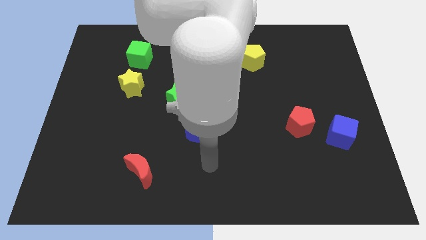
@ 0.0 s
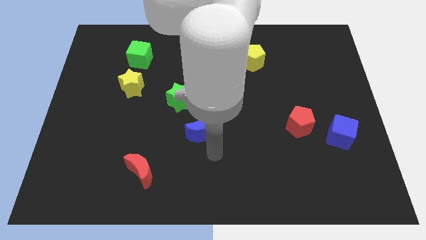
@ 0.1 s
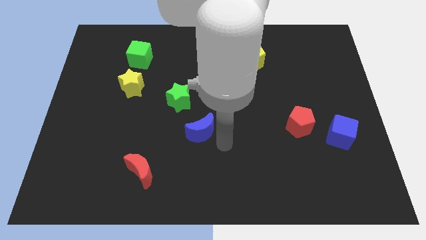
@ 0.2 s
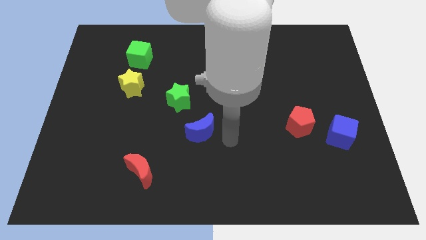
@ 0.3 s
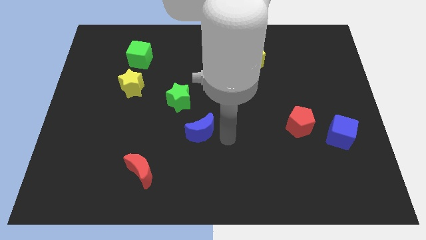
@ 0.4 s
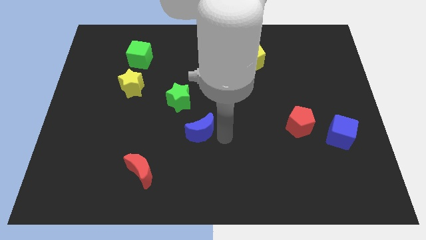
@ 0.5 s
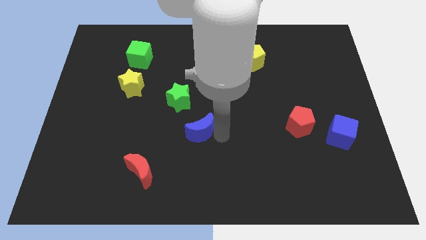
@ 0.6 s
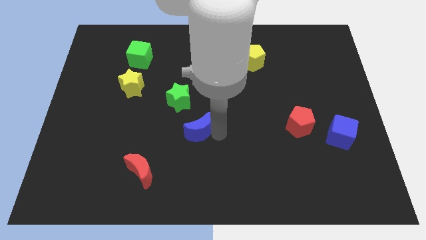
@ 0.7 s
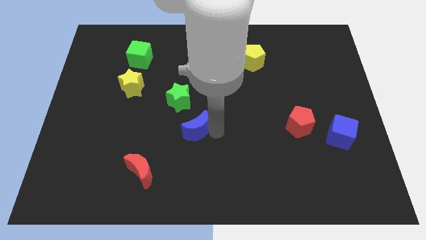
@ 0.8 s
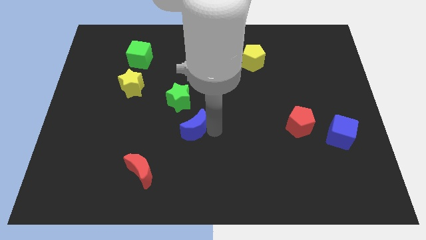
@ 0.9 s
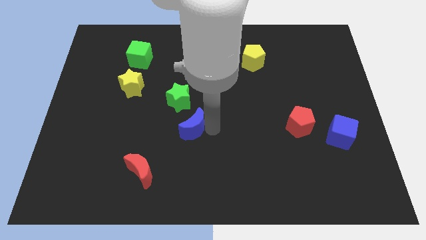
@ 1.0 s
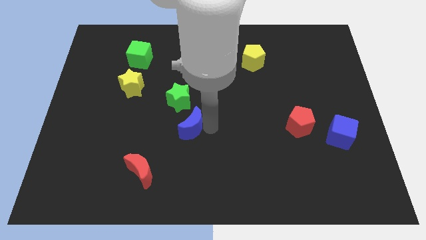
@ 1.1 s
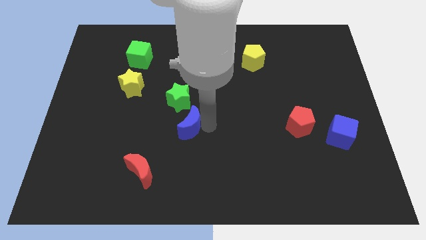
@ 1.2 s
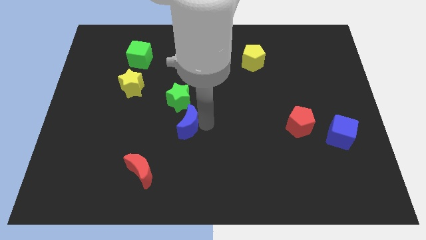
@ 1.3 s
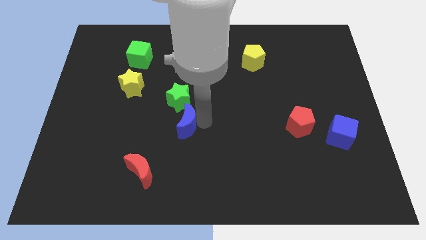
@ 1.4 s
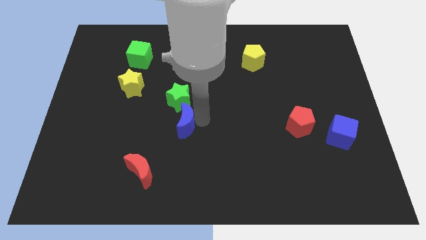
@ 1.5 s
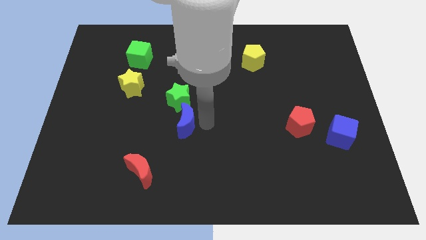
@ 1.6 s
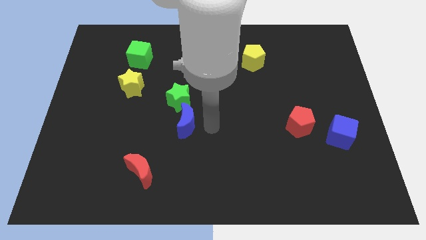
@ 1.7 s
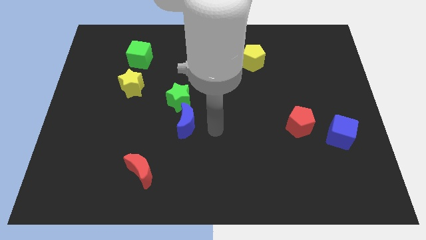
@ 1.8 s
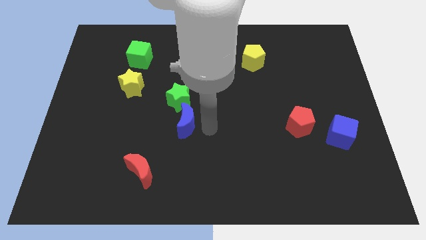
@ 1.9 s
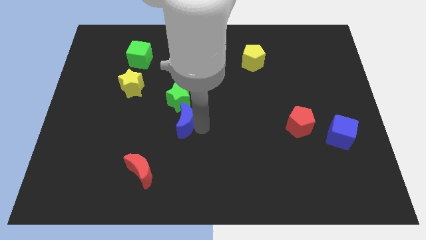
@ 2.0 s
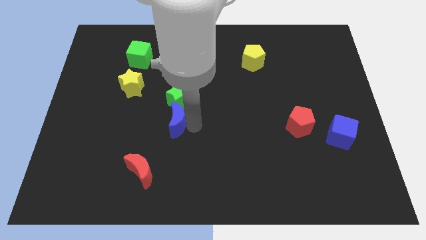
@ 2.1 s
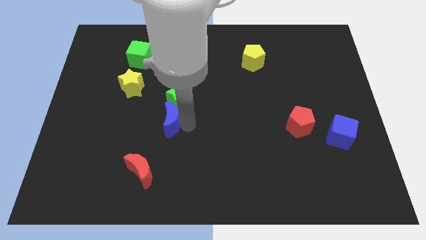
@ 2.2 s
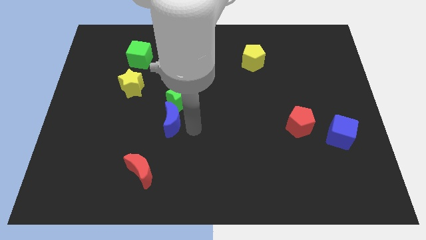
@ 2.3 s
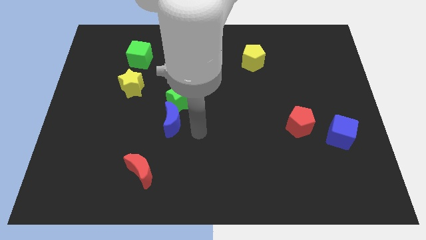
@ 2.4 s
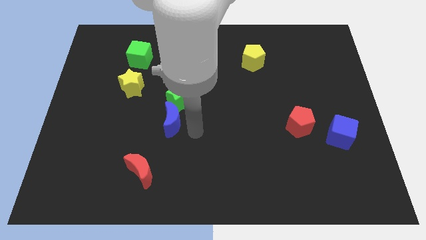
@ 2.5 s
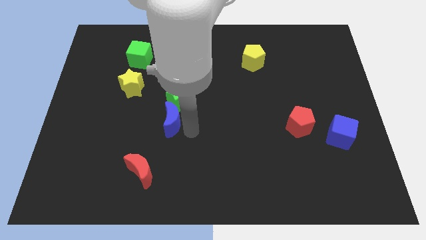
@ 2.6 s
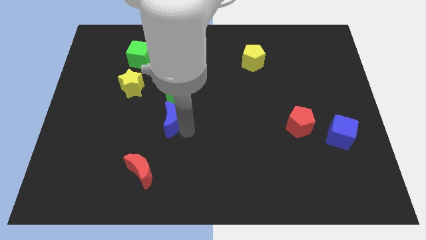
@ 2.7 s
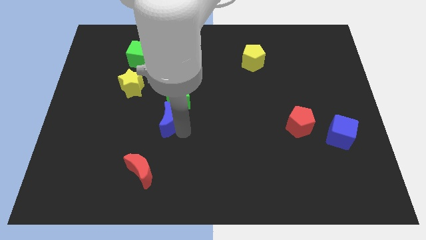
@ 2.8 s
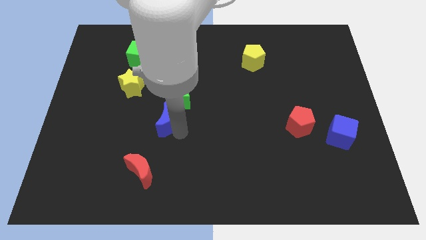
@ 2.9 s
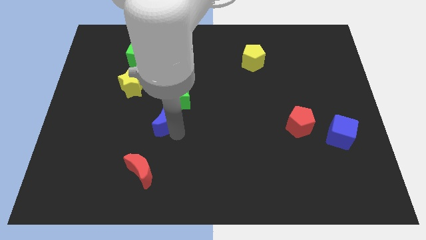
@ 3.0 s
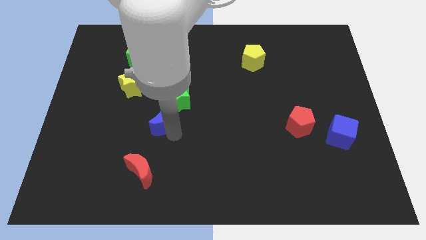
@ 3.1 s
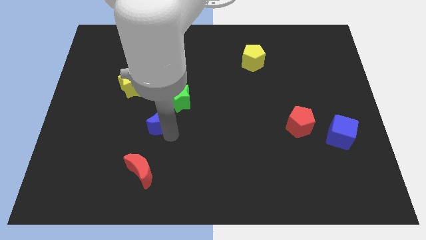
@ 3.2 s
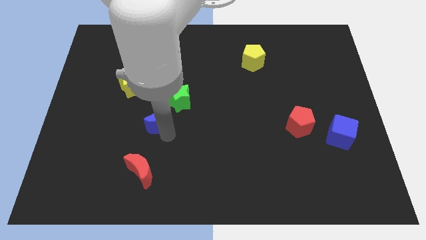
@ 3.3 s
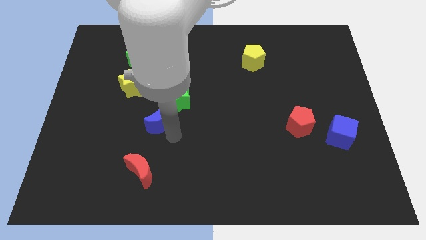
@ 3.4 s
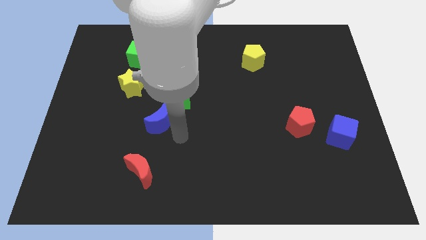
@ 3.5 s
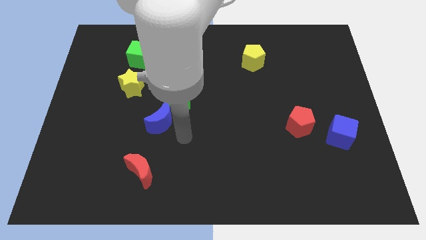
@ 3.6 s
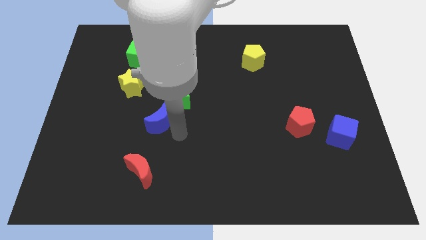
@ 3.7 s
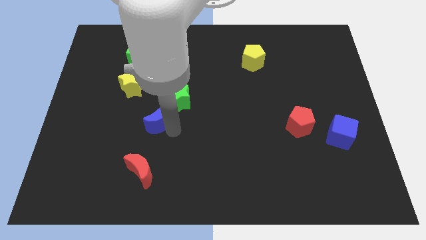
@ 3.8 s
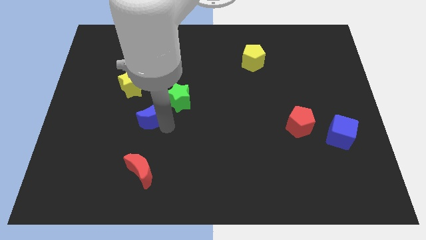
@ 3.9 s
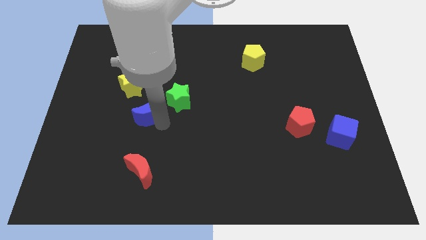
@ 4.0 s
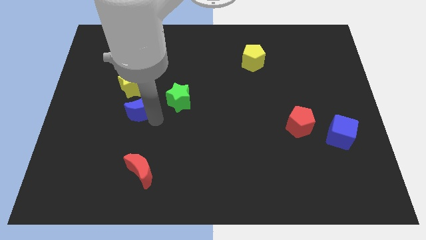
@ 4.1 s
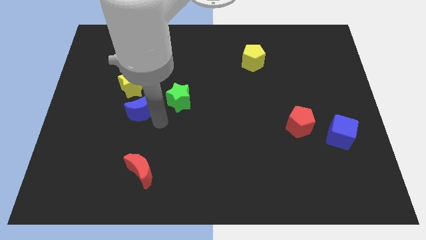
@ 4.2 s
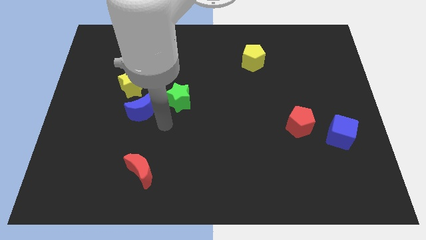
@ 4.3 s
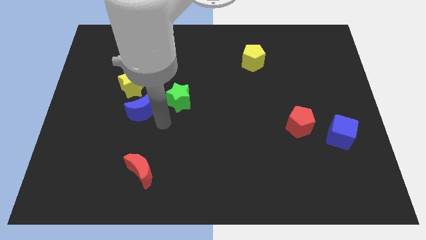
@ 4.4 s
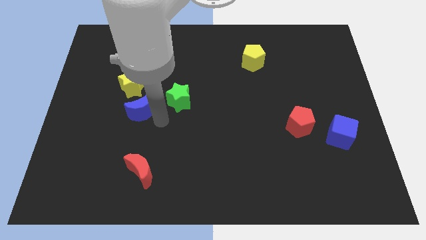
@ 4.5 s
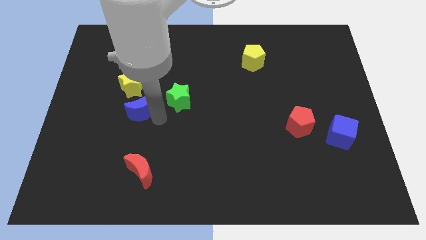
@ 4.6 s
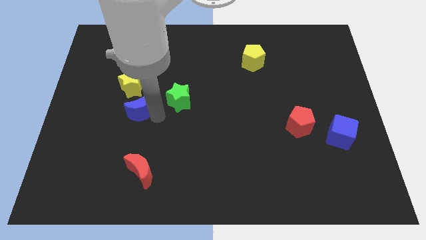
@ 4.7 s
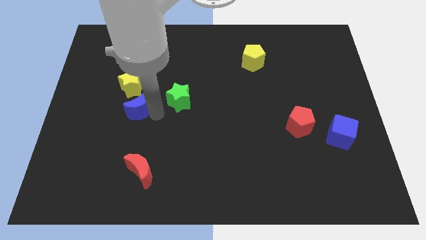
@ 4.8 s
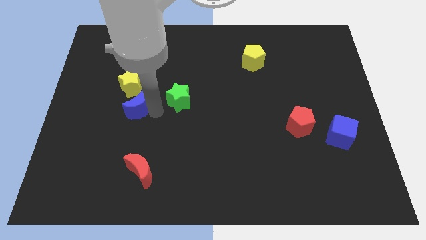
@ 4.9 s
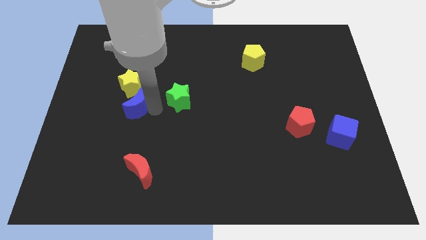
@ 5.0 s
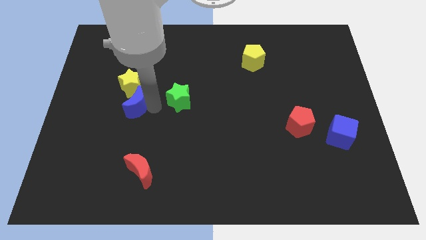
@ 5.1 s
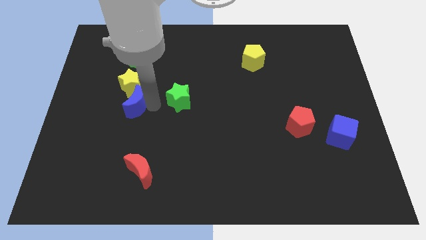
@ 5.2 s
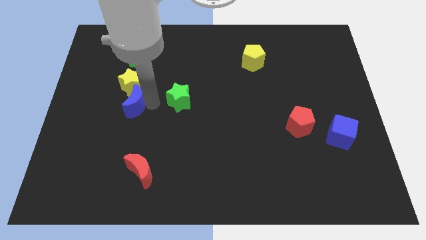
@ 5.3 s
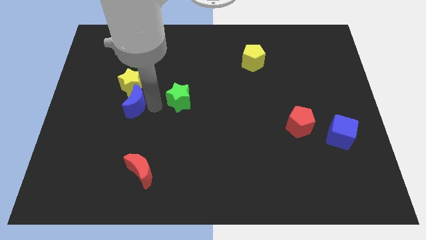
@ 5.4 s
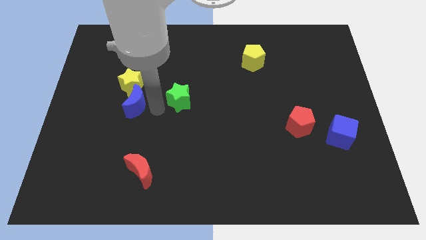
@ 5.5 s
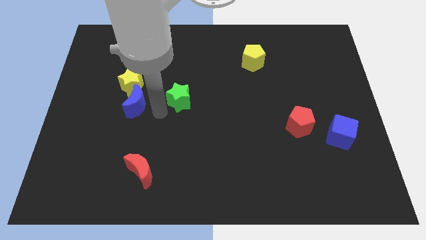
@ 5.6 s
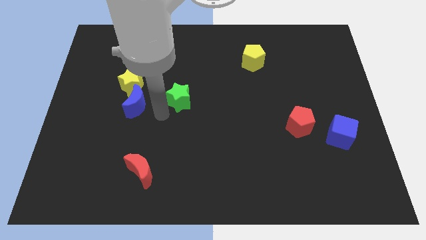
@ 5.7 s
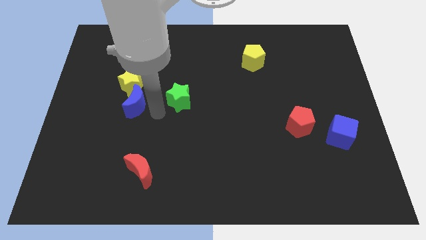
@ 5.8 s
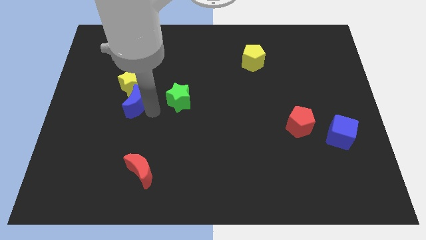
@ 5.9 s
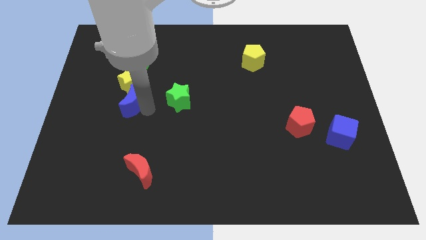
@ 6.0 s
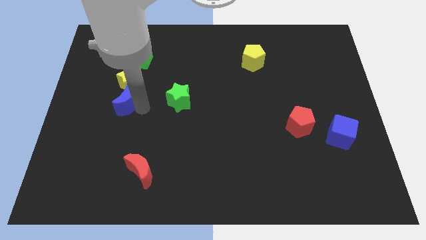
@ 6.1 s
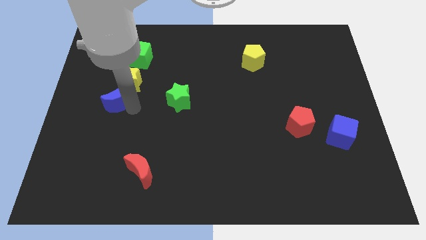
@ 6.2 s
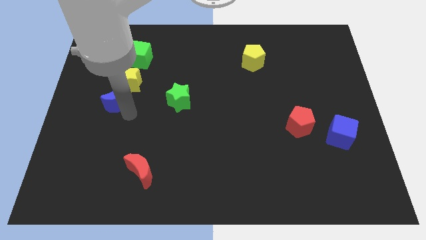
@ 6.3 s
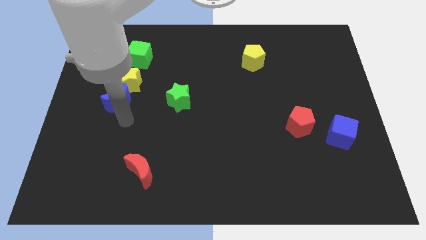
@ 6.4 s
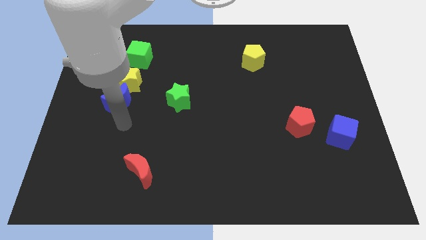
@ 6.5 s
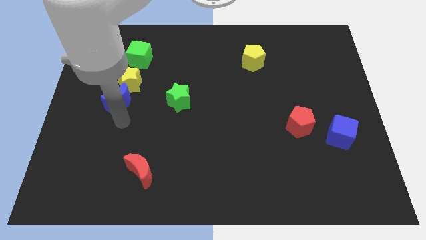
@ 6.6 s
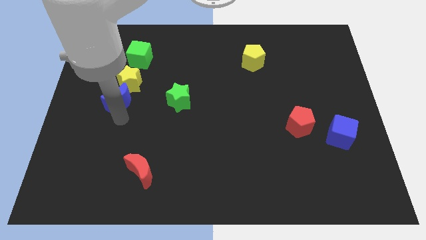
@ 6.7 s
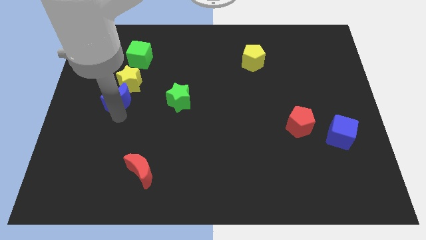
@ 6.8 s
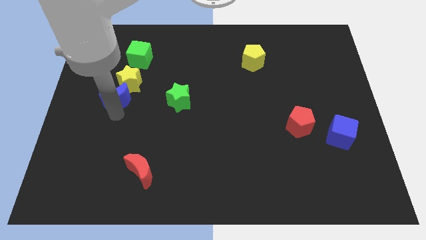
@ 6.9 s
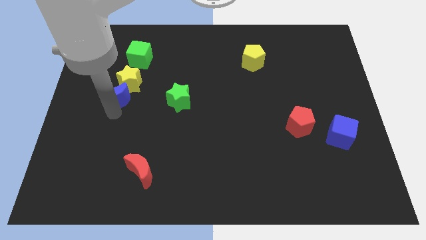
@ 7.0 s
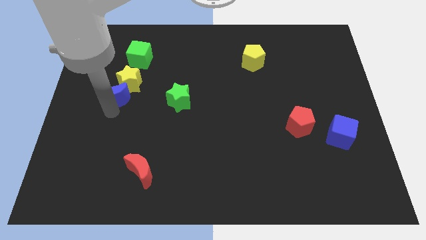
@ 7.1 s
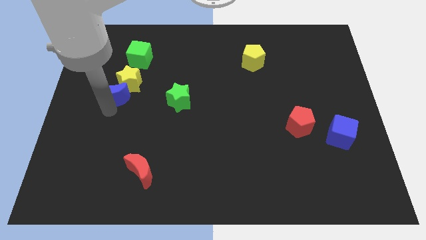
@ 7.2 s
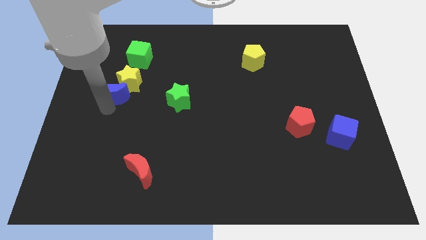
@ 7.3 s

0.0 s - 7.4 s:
push the blue moon diagonally upwards and to the left

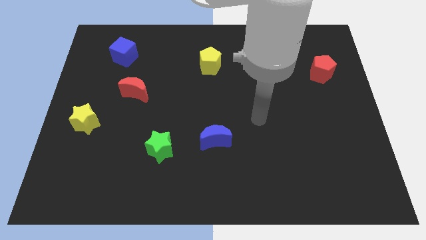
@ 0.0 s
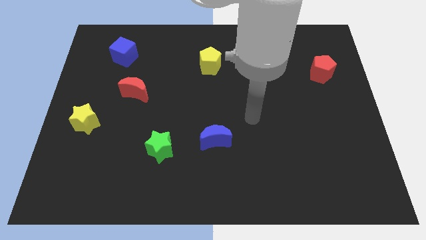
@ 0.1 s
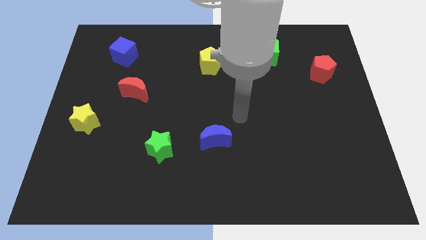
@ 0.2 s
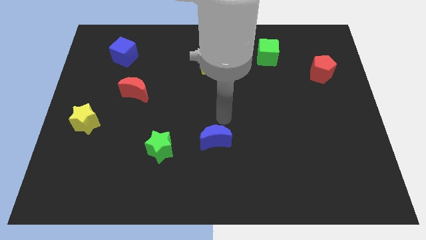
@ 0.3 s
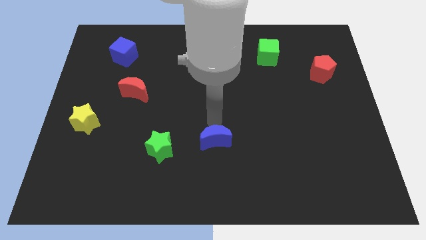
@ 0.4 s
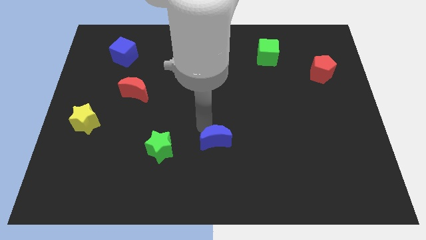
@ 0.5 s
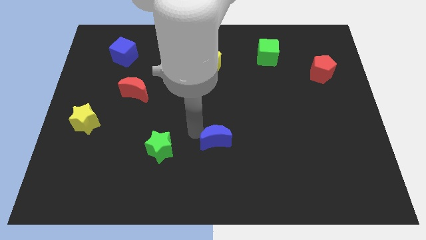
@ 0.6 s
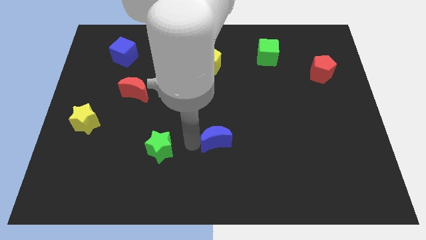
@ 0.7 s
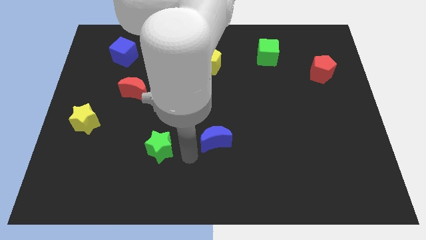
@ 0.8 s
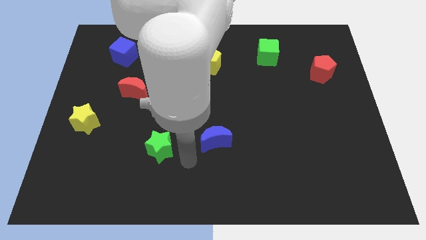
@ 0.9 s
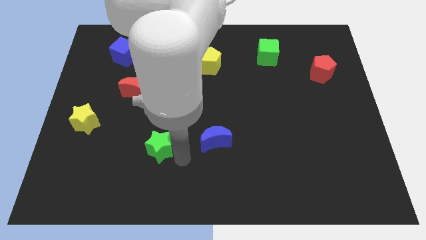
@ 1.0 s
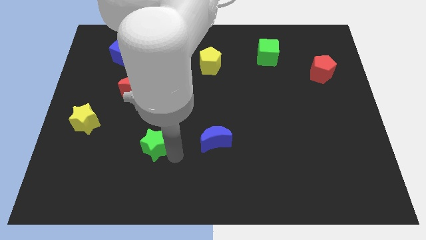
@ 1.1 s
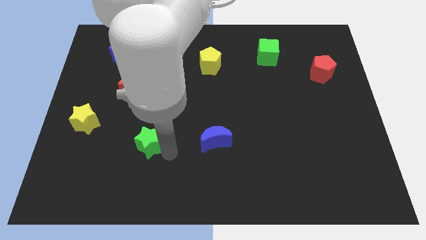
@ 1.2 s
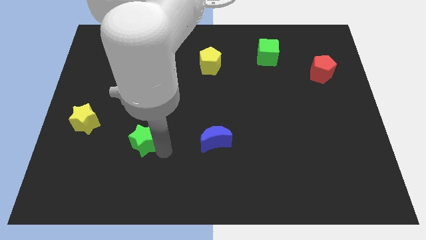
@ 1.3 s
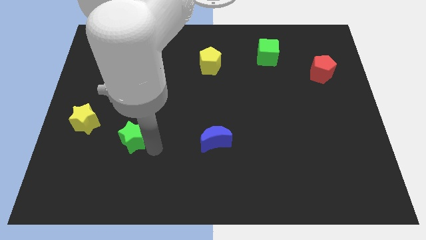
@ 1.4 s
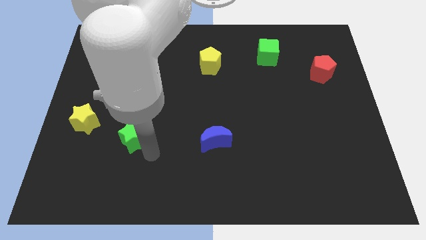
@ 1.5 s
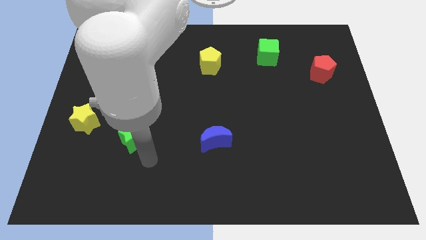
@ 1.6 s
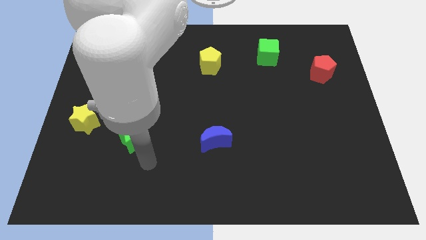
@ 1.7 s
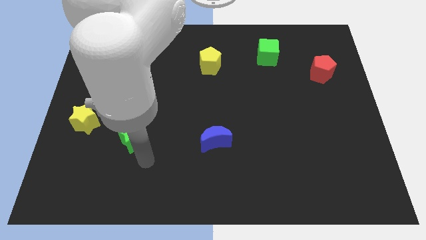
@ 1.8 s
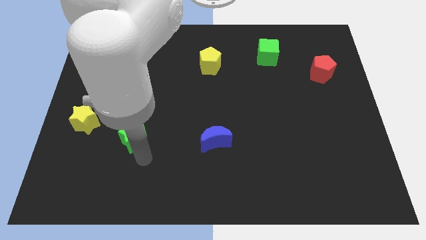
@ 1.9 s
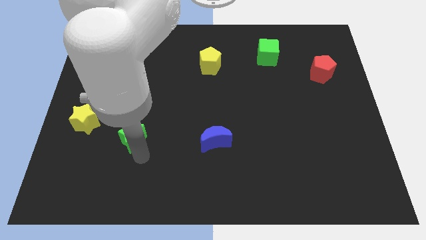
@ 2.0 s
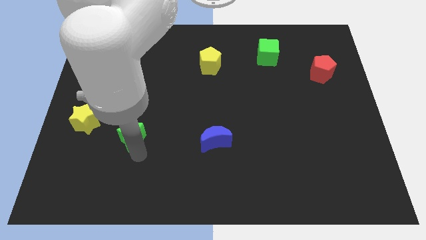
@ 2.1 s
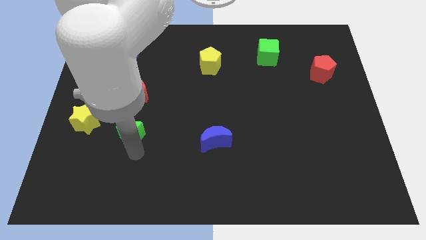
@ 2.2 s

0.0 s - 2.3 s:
slide the green star upwards and to the left a little
